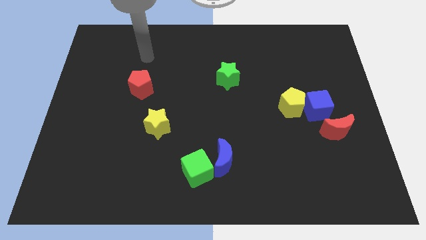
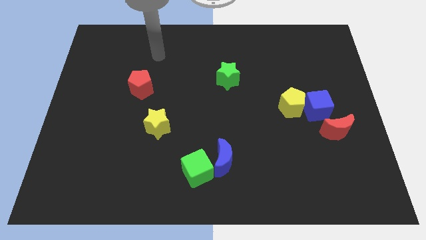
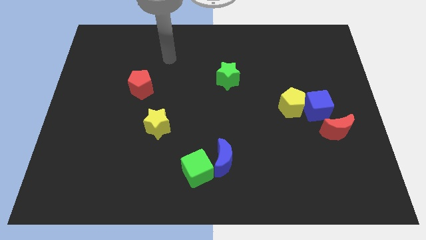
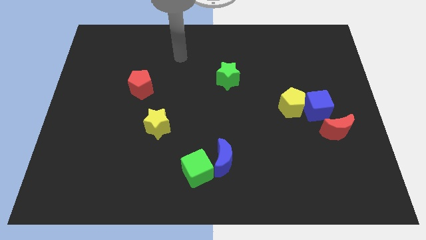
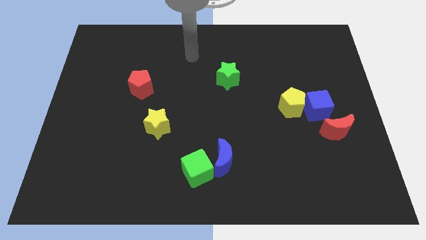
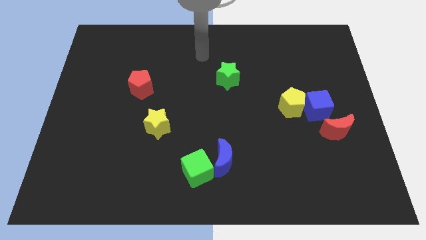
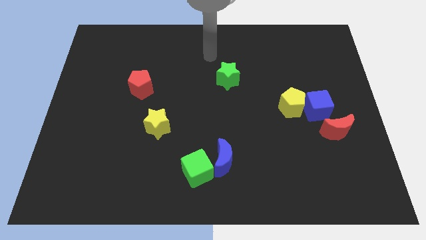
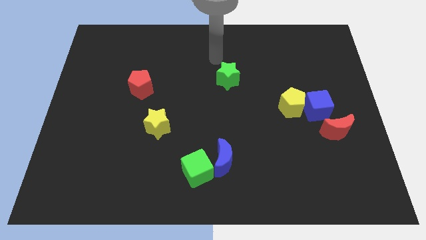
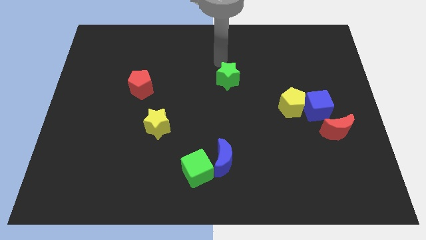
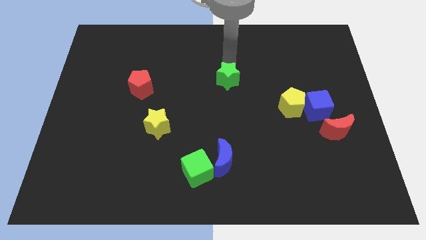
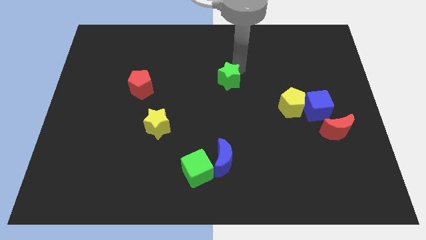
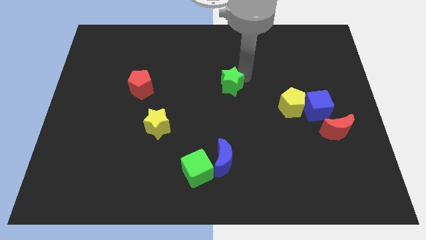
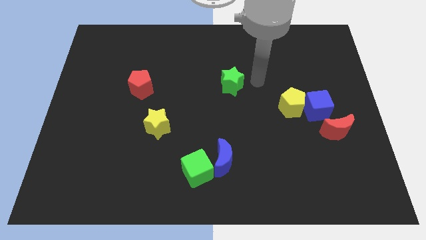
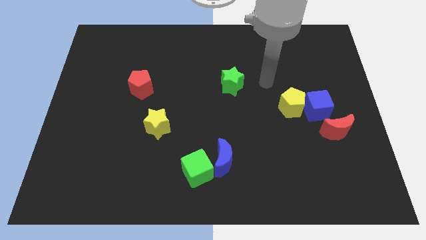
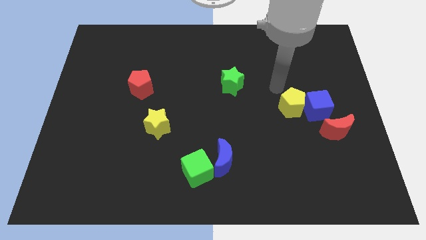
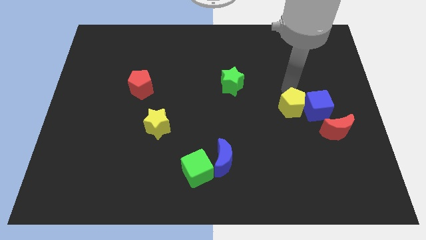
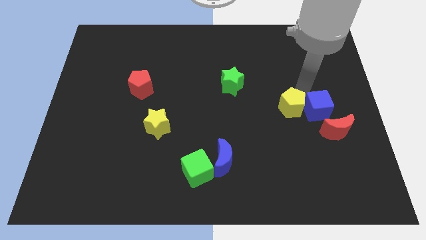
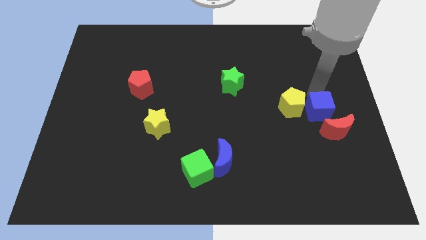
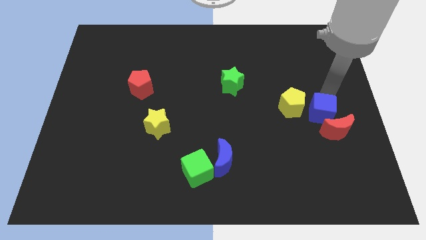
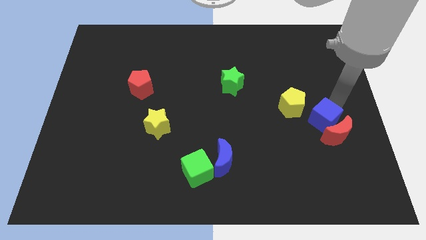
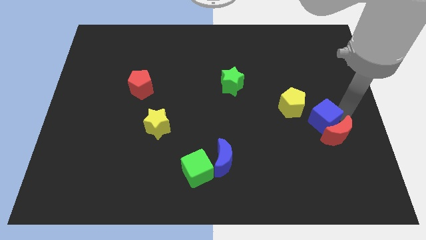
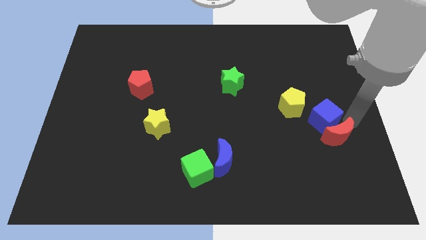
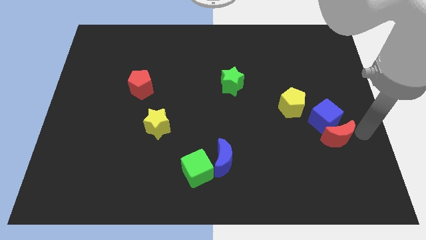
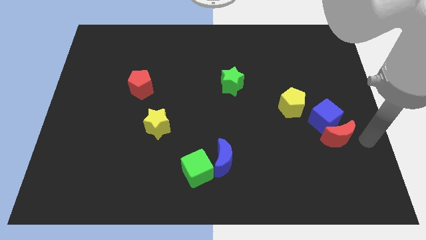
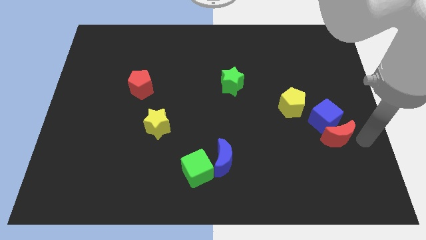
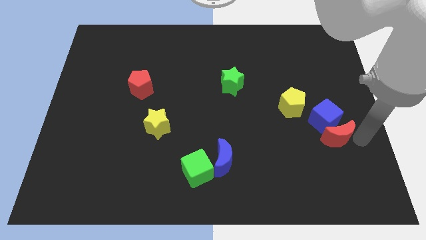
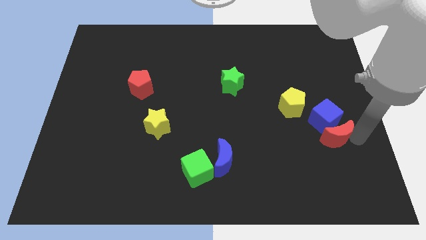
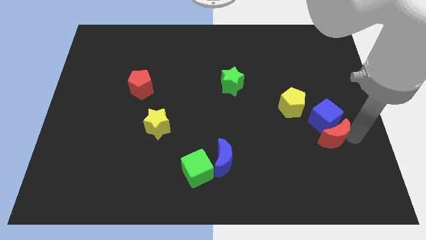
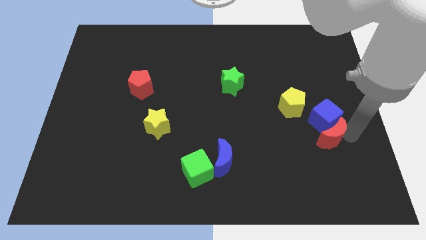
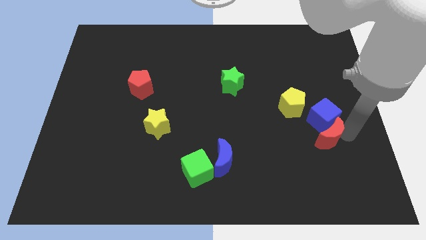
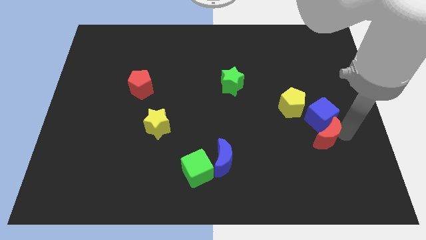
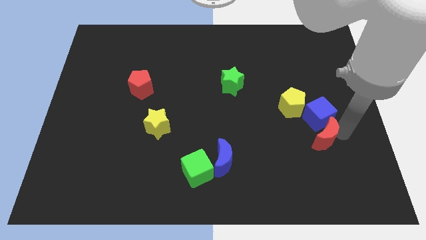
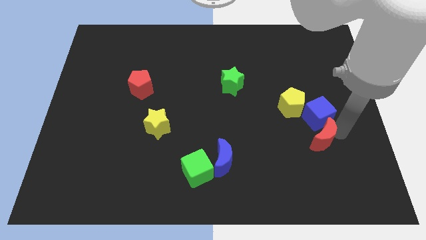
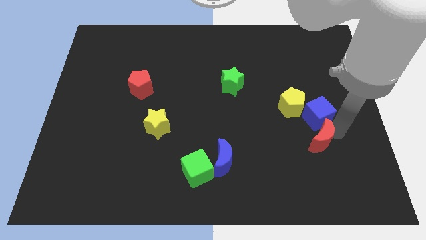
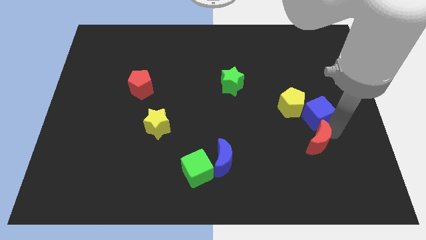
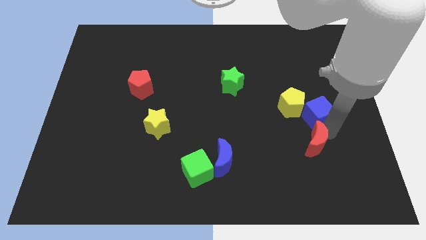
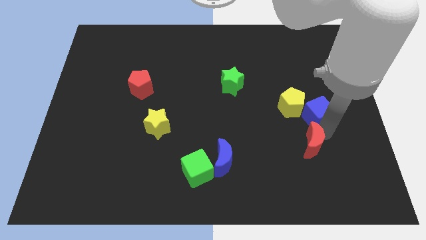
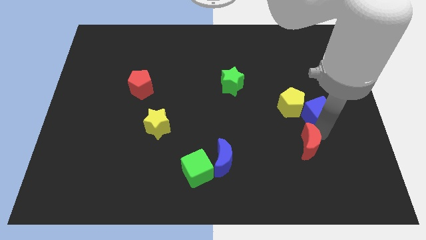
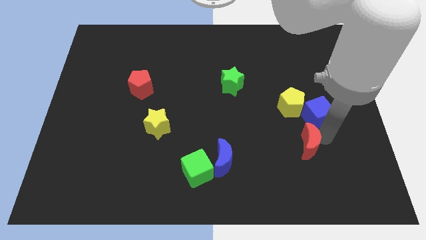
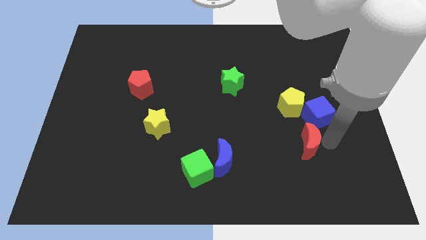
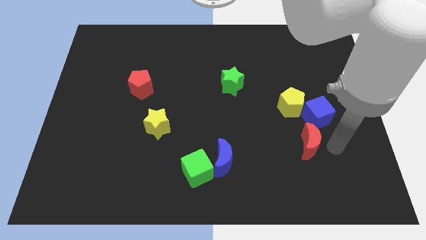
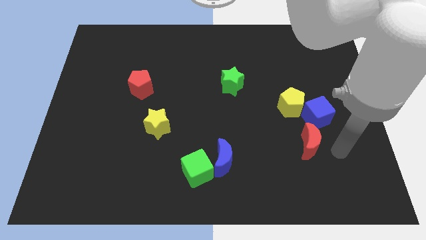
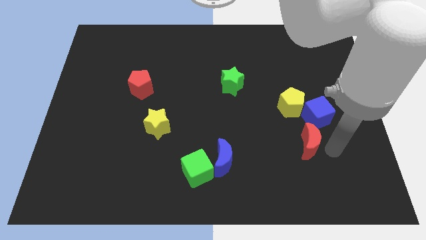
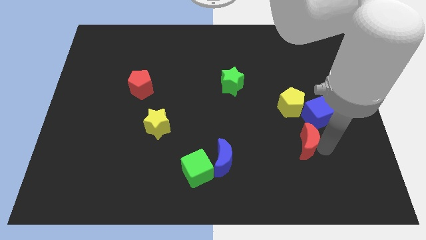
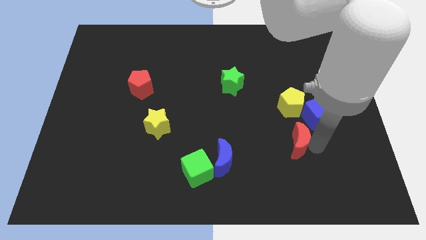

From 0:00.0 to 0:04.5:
move the red moon slightly to the left

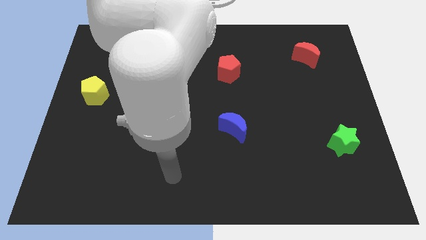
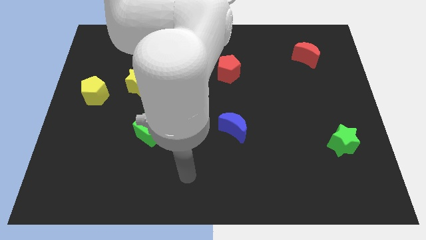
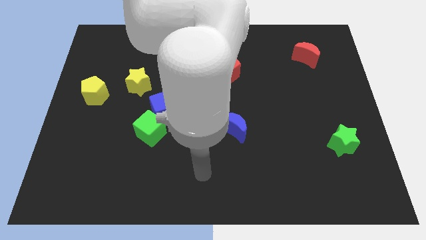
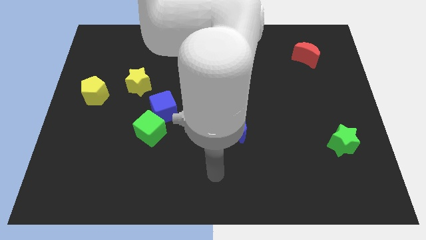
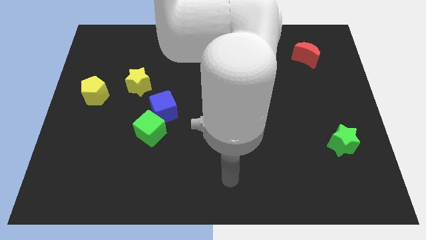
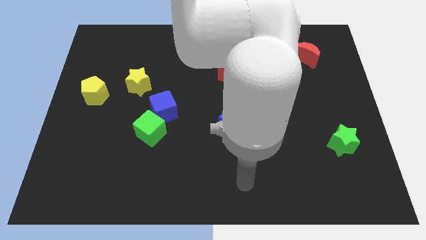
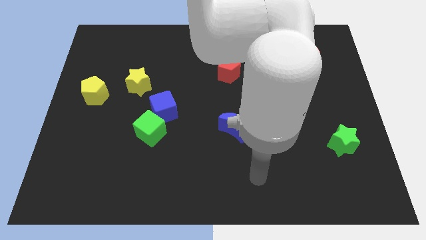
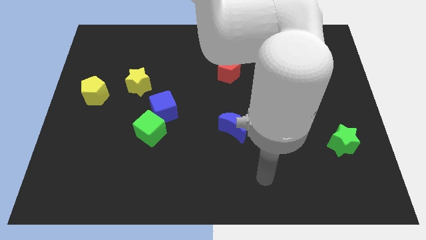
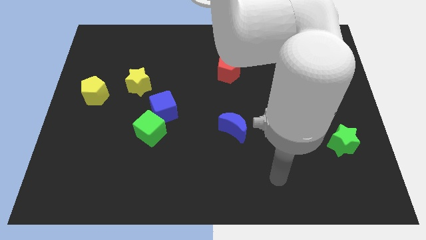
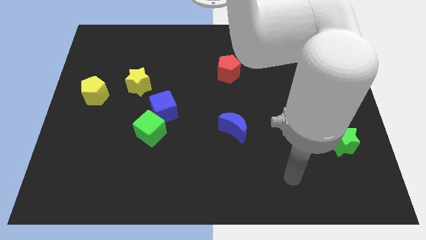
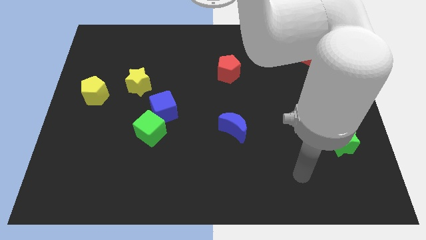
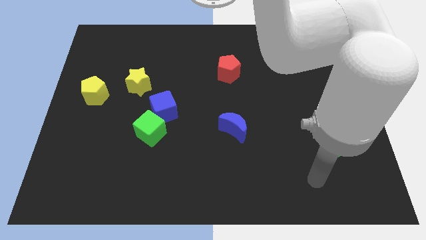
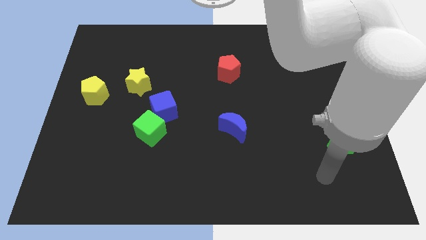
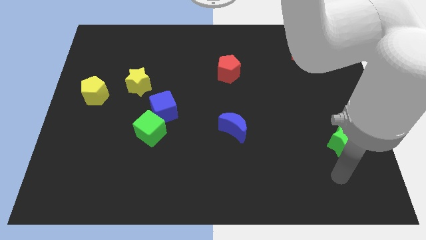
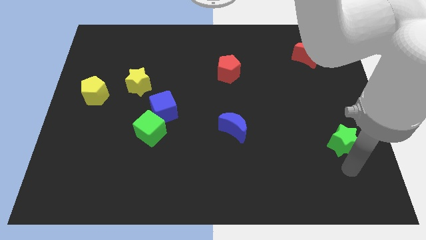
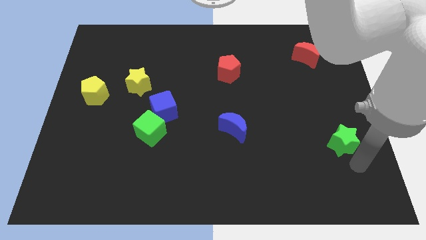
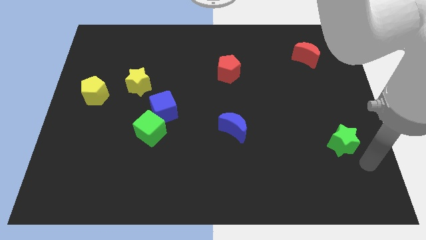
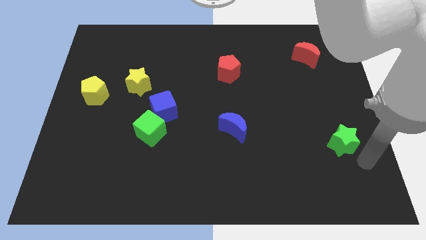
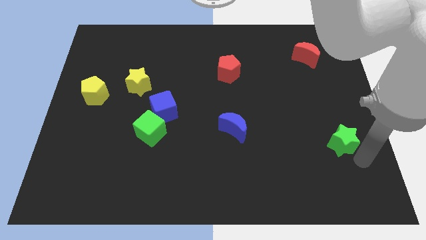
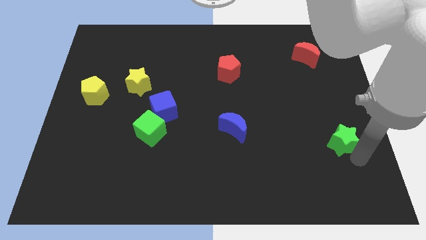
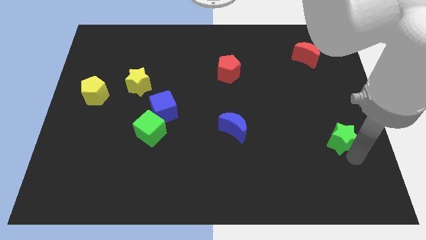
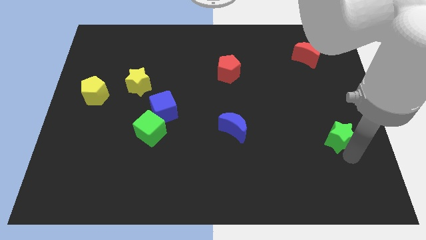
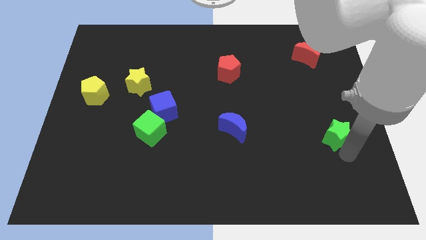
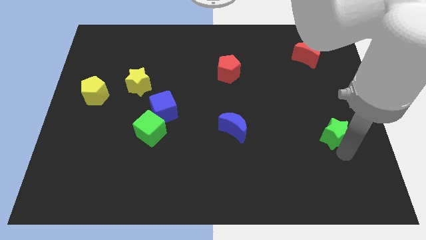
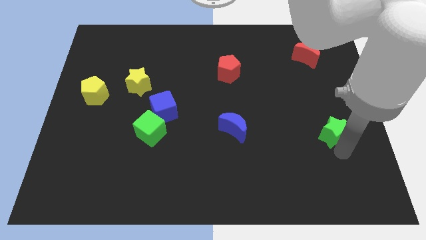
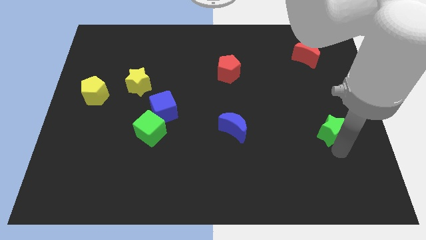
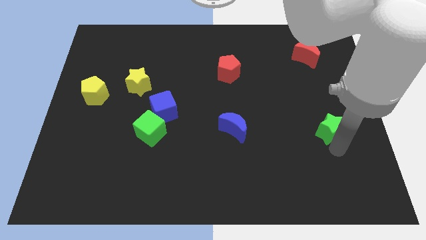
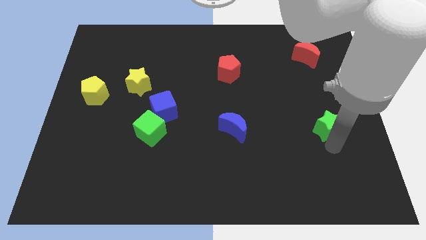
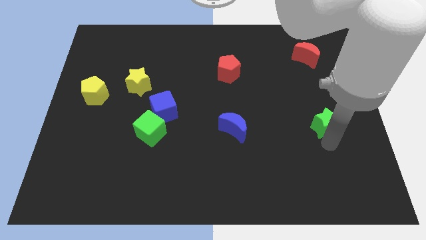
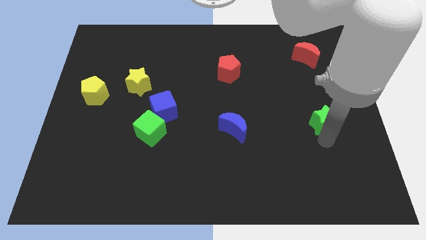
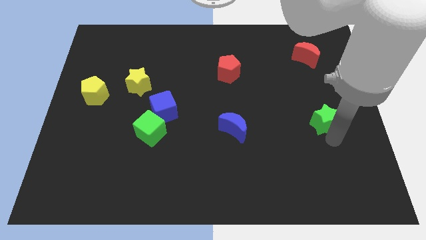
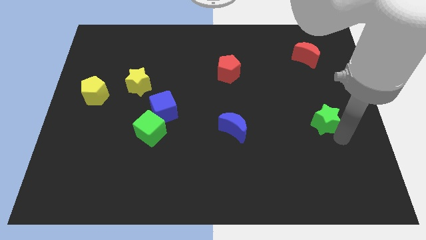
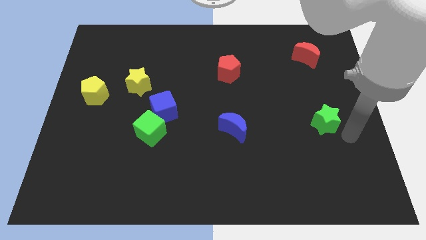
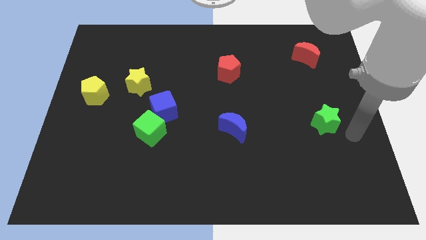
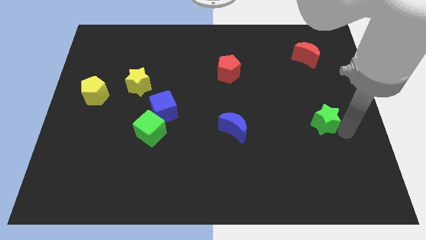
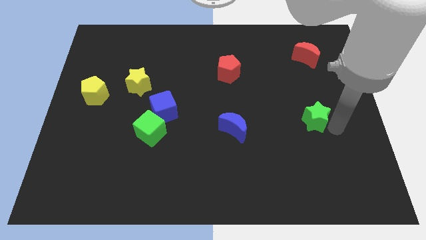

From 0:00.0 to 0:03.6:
push the green star diagonally up and to the left a little bit
